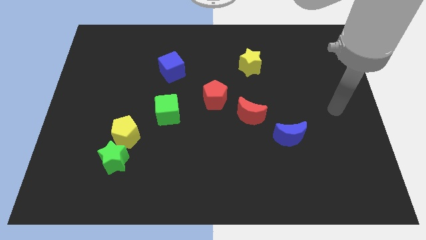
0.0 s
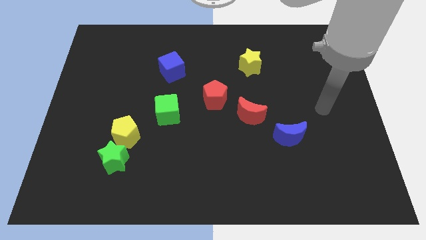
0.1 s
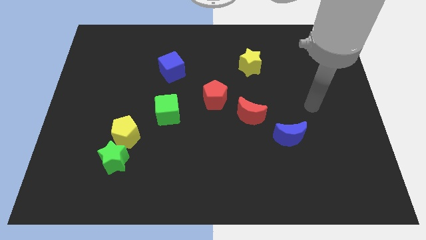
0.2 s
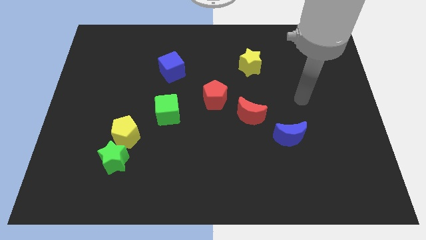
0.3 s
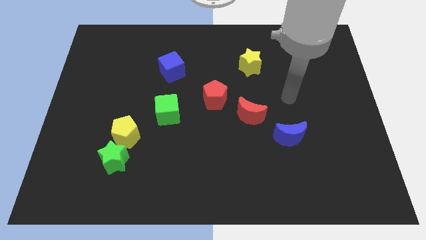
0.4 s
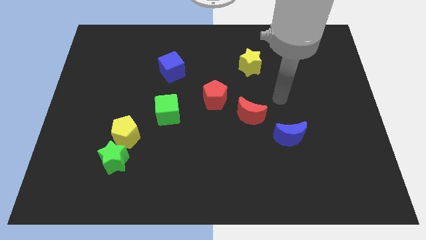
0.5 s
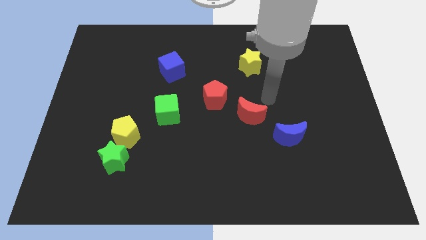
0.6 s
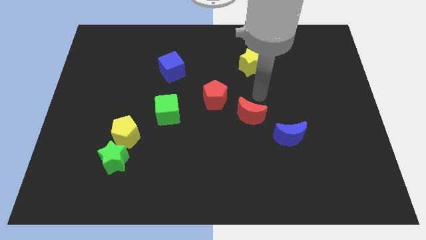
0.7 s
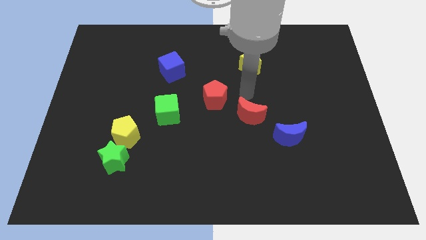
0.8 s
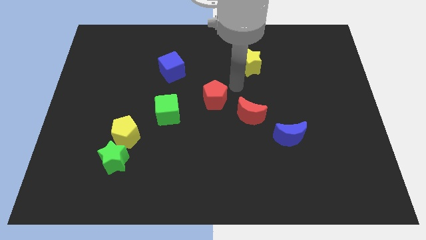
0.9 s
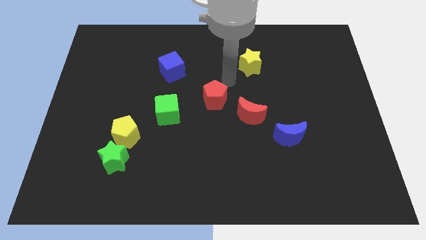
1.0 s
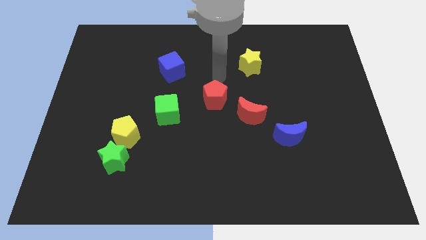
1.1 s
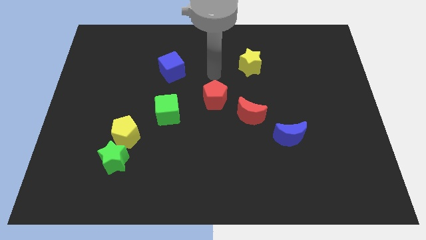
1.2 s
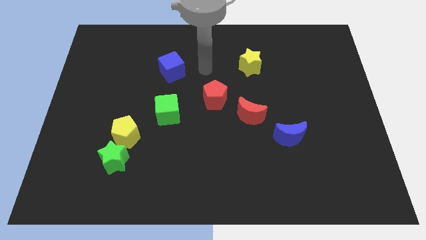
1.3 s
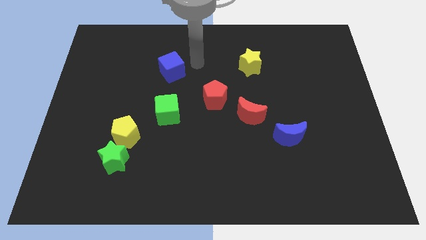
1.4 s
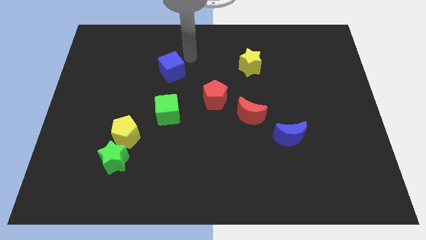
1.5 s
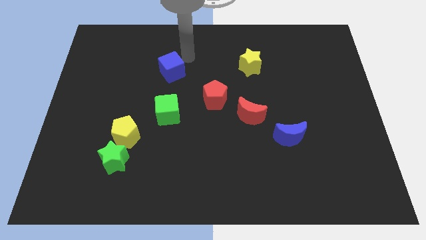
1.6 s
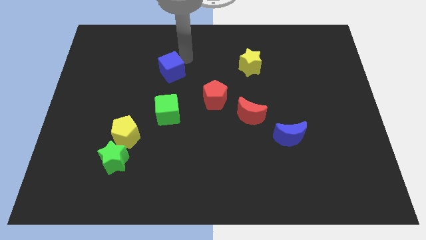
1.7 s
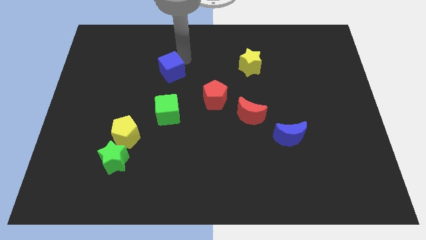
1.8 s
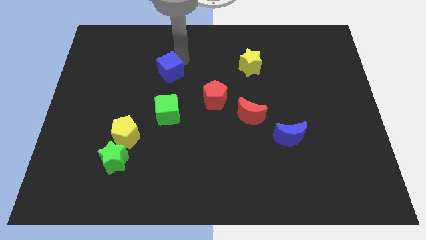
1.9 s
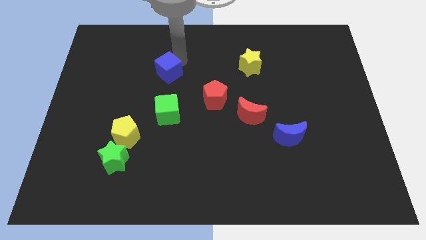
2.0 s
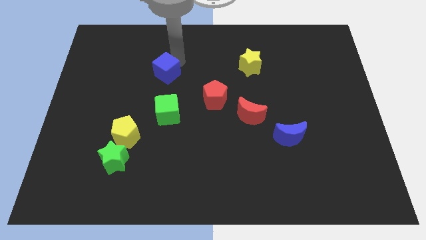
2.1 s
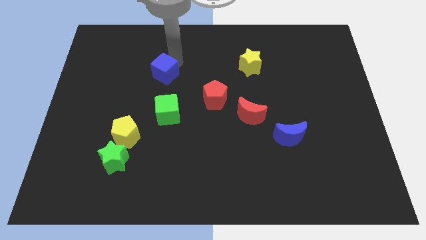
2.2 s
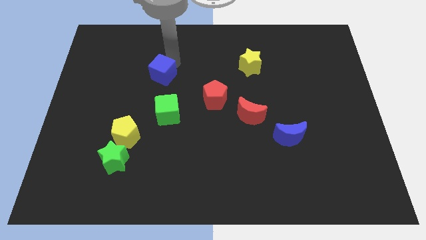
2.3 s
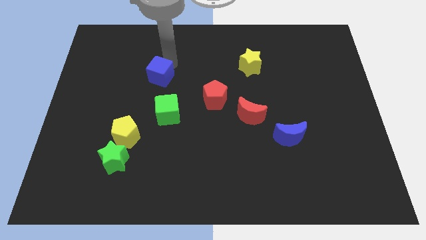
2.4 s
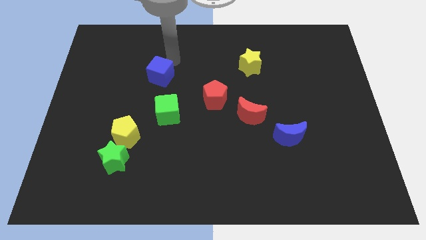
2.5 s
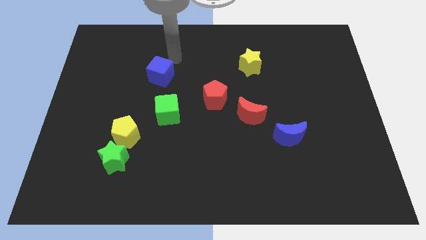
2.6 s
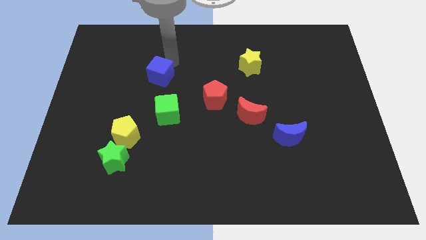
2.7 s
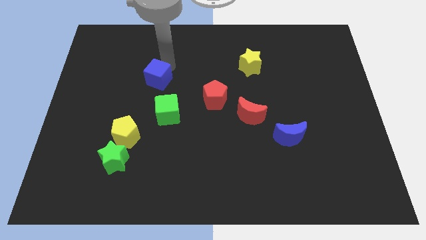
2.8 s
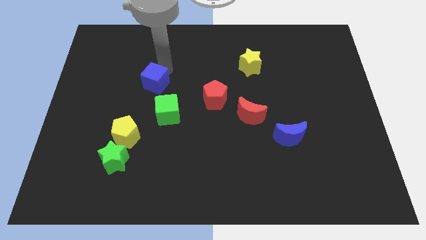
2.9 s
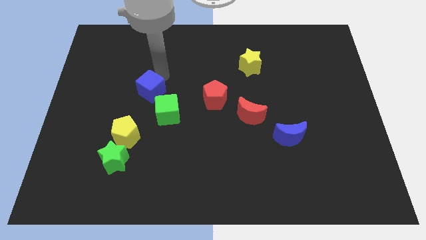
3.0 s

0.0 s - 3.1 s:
slightly slide the blue cube down and then to the left

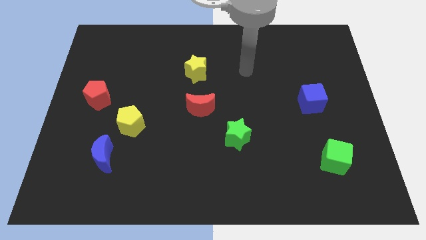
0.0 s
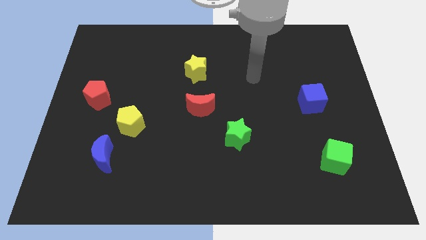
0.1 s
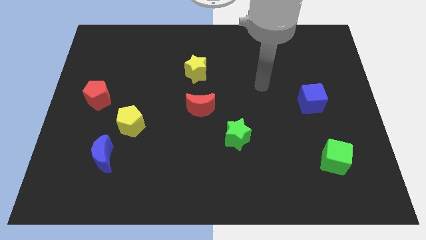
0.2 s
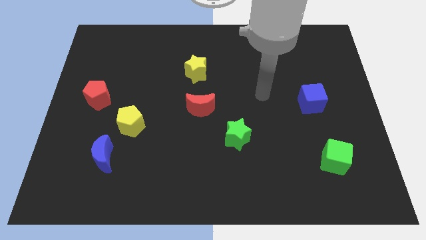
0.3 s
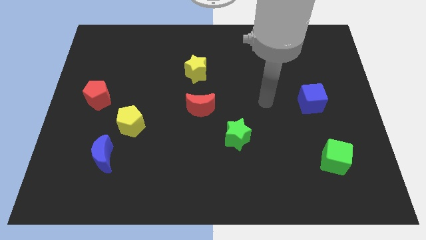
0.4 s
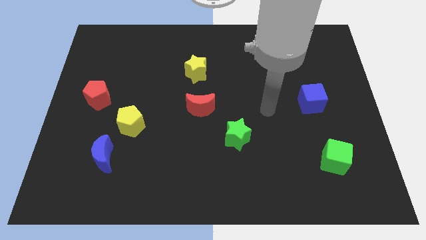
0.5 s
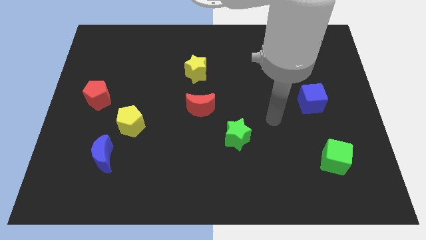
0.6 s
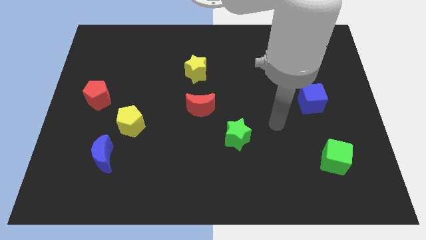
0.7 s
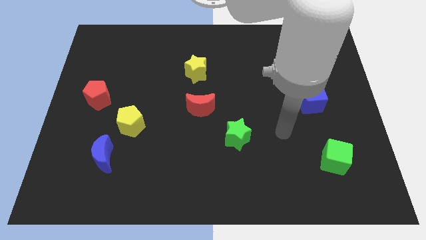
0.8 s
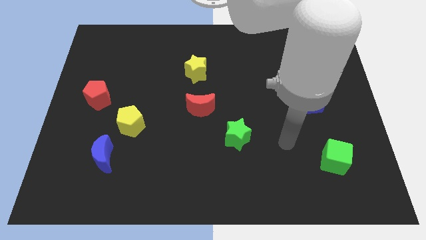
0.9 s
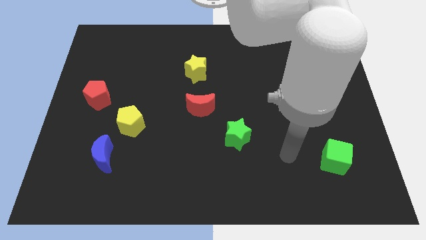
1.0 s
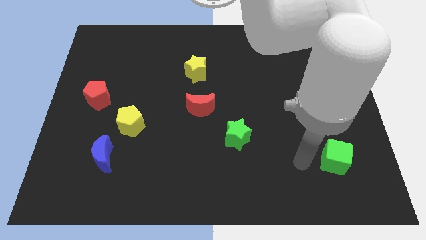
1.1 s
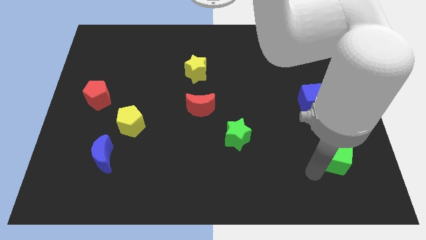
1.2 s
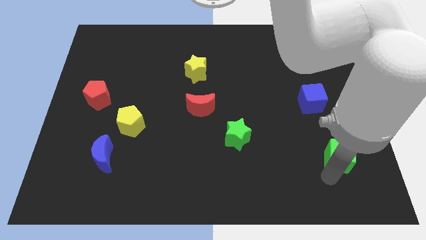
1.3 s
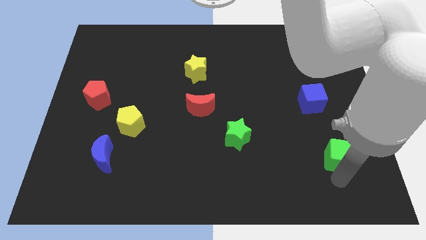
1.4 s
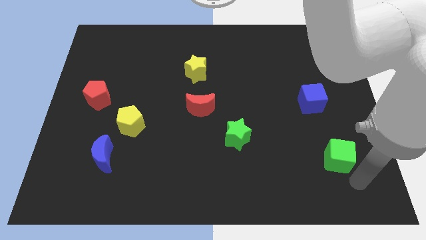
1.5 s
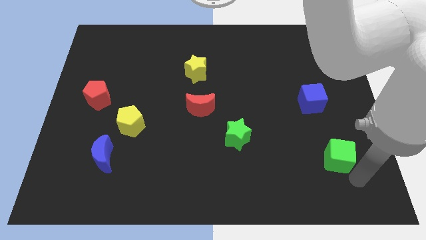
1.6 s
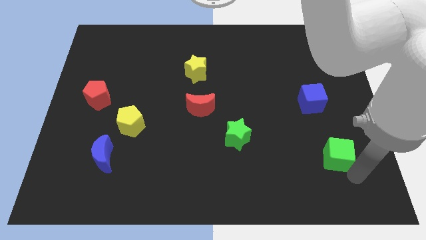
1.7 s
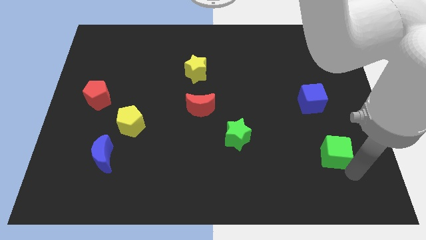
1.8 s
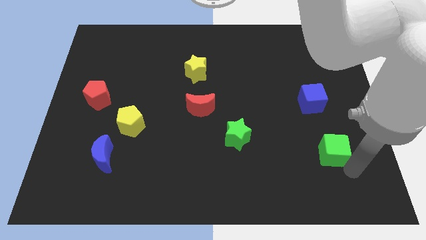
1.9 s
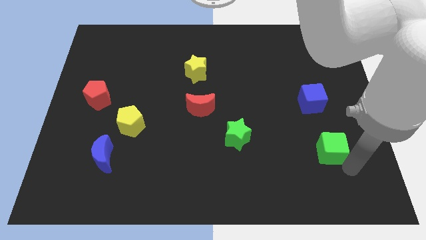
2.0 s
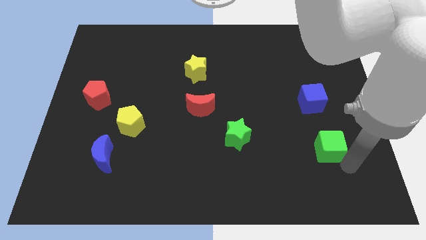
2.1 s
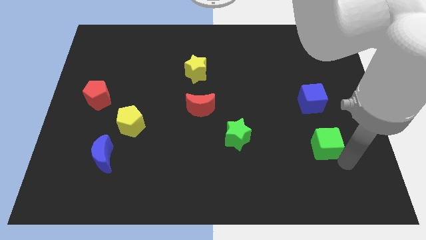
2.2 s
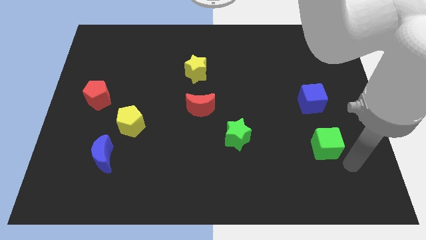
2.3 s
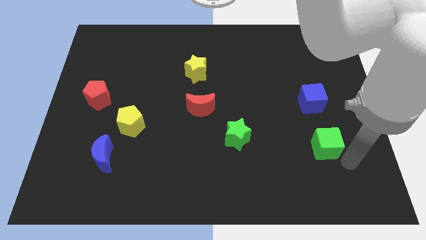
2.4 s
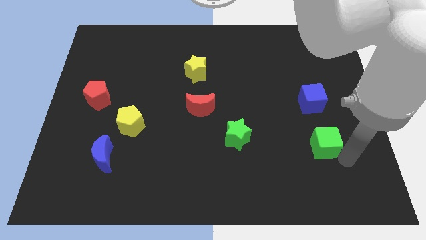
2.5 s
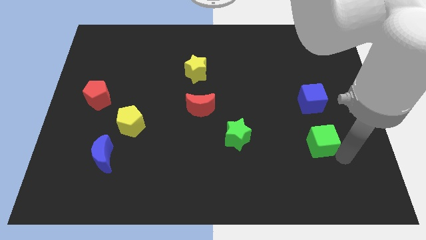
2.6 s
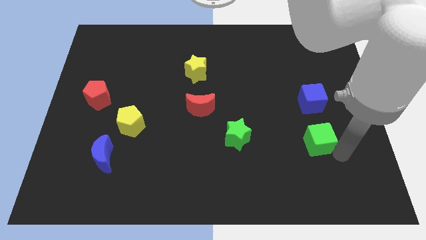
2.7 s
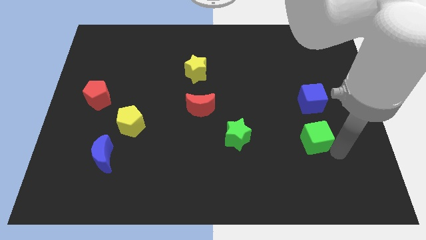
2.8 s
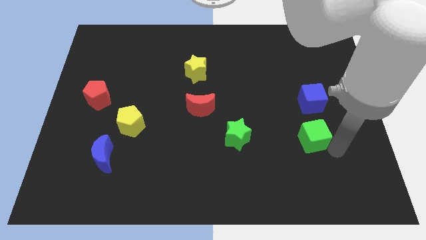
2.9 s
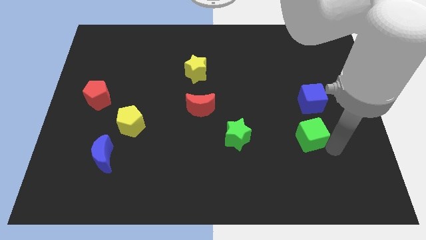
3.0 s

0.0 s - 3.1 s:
slightly move the green cube diagonally up and left

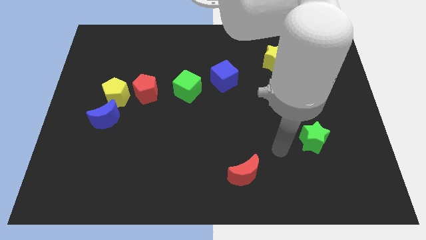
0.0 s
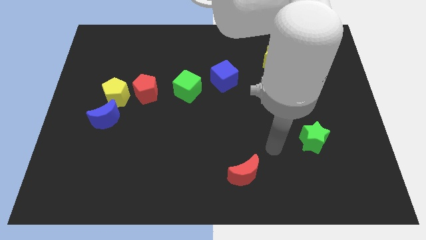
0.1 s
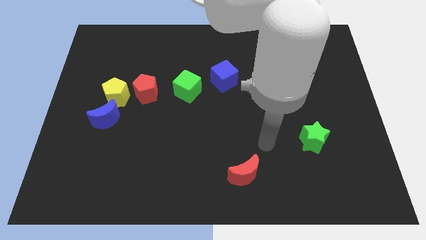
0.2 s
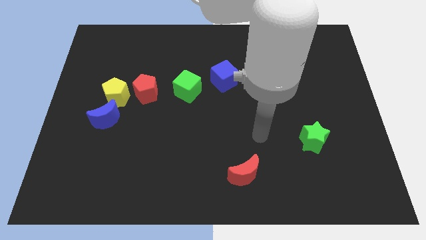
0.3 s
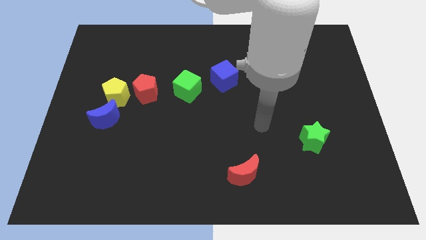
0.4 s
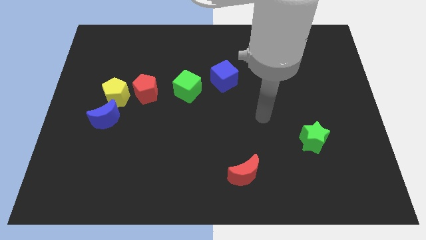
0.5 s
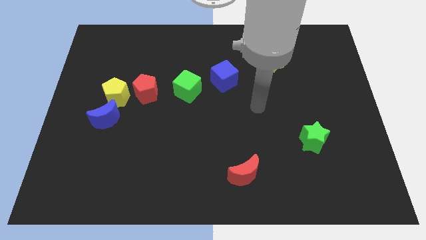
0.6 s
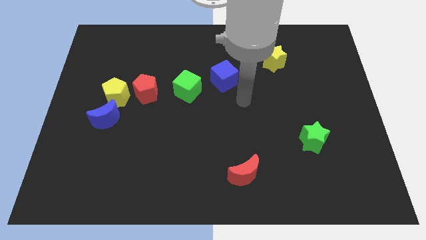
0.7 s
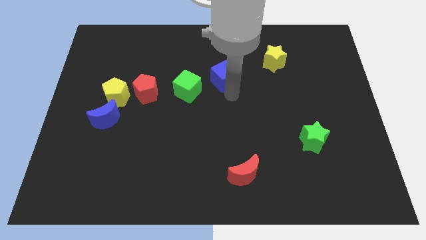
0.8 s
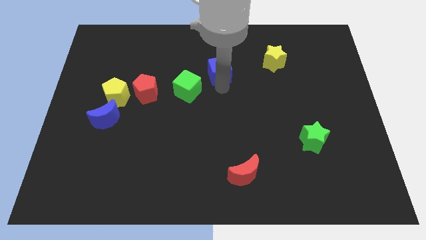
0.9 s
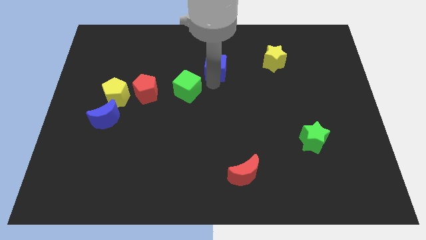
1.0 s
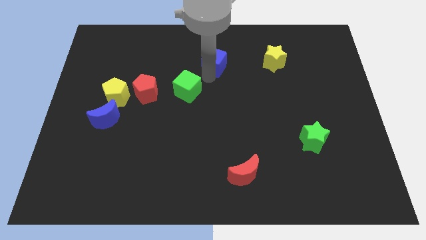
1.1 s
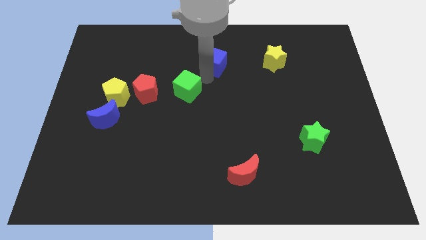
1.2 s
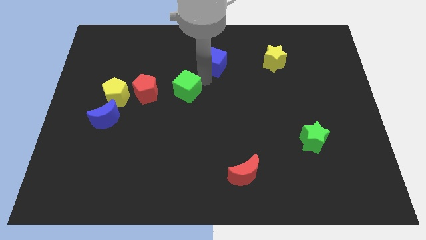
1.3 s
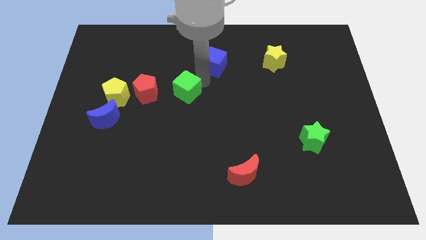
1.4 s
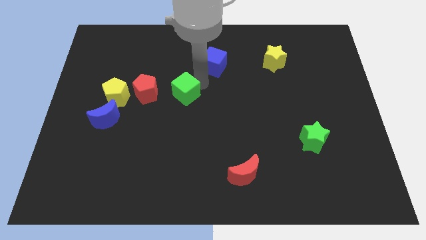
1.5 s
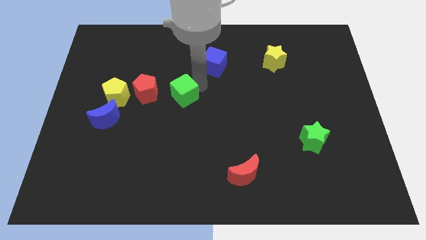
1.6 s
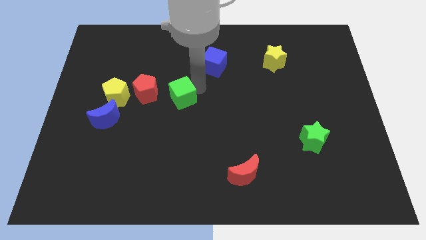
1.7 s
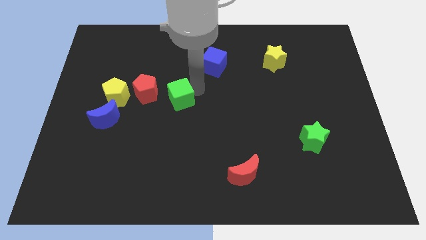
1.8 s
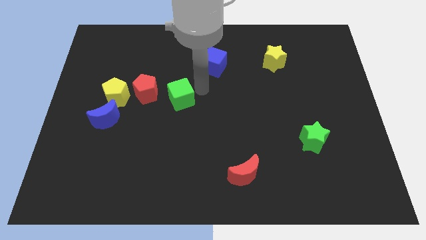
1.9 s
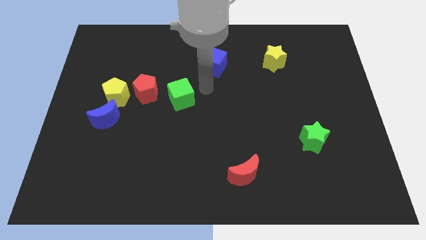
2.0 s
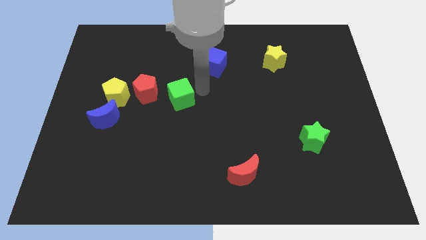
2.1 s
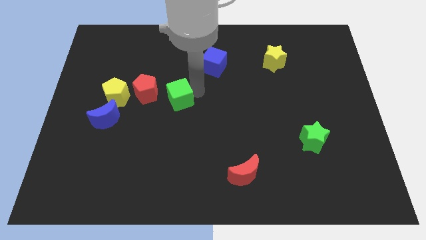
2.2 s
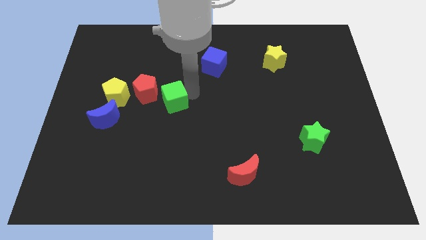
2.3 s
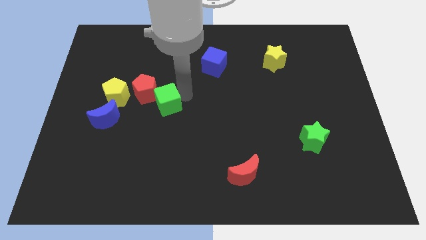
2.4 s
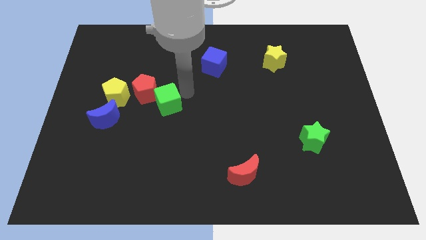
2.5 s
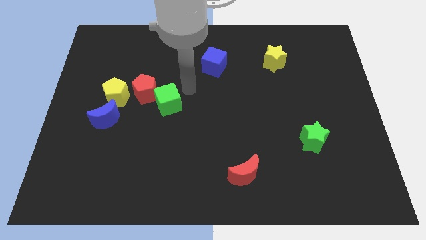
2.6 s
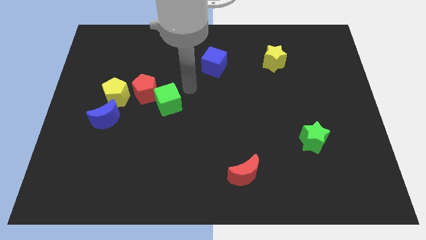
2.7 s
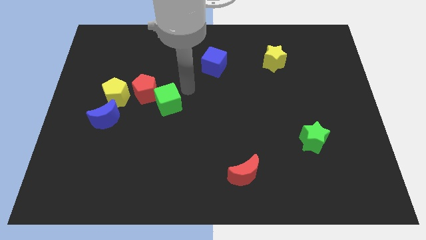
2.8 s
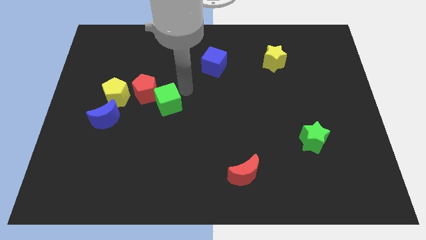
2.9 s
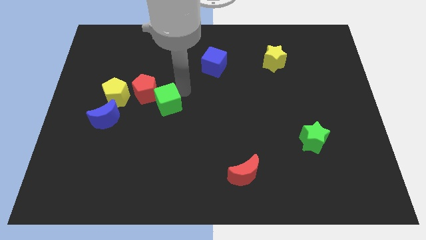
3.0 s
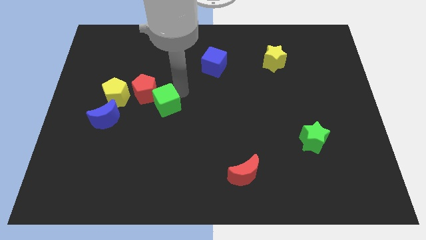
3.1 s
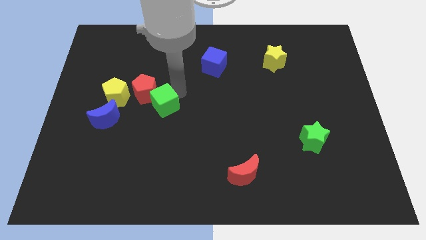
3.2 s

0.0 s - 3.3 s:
push the green cube a little diagonally down and left
